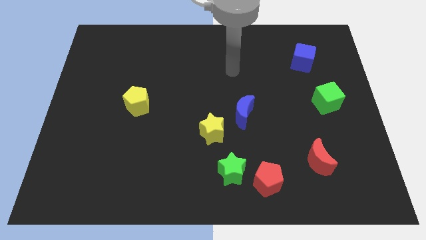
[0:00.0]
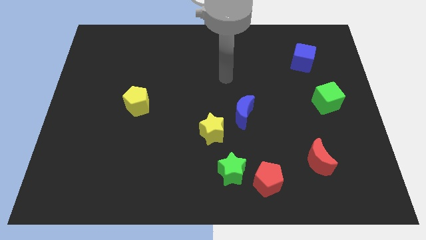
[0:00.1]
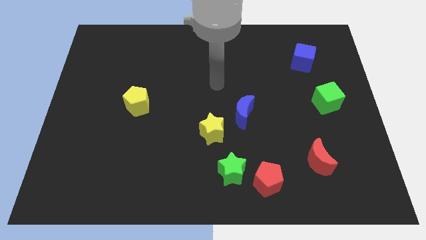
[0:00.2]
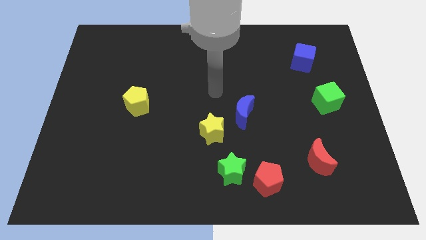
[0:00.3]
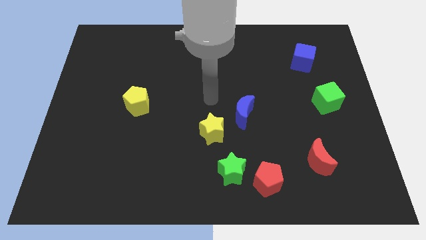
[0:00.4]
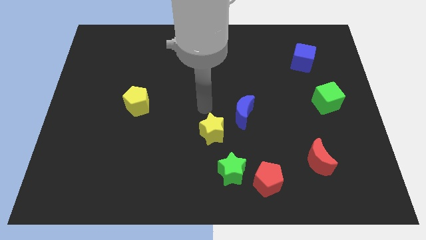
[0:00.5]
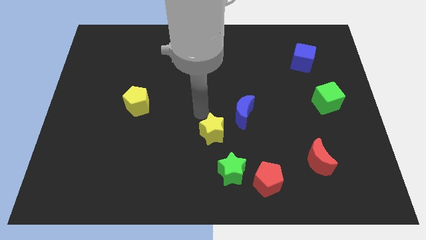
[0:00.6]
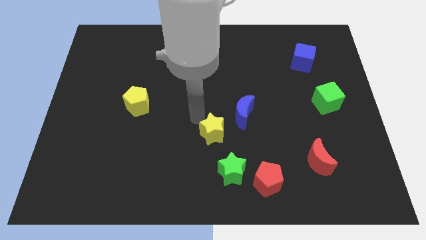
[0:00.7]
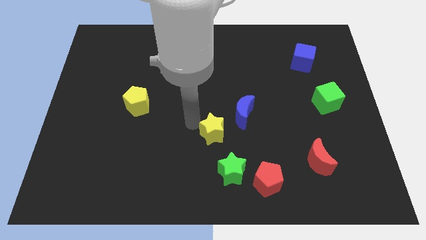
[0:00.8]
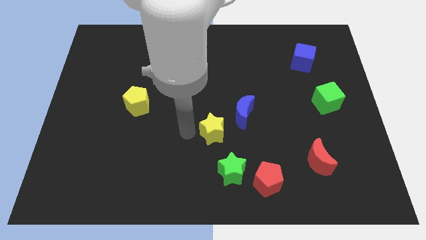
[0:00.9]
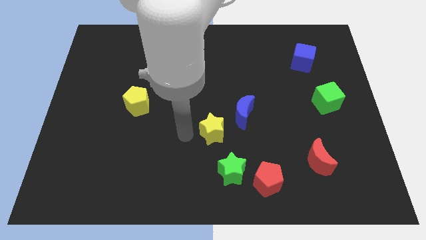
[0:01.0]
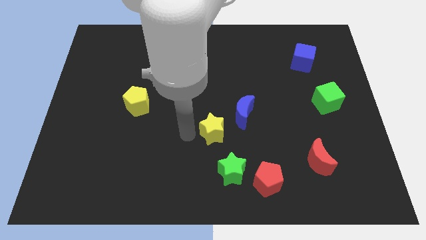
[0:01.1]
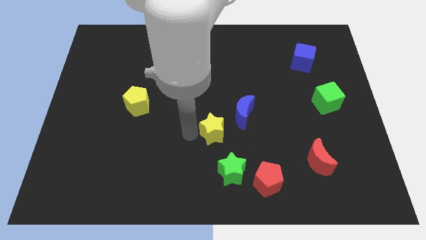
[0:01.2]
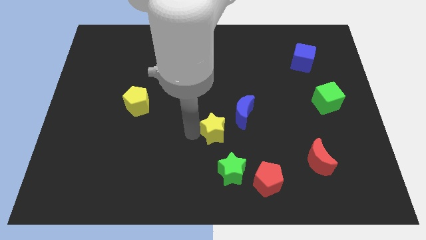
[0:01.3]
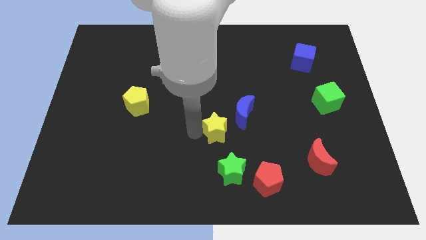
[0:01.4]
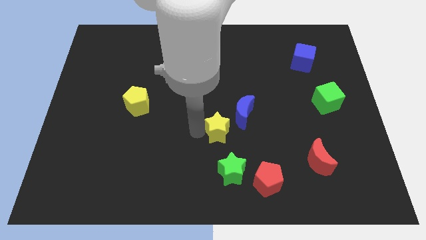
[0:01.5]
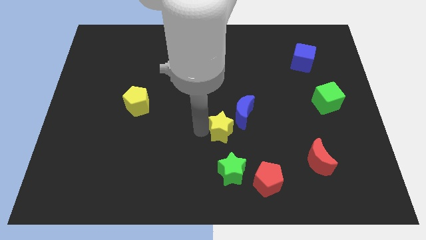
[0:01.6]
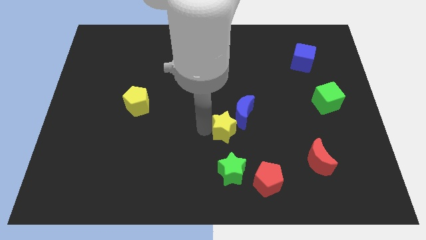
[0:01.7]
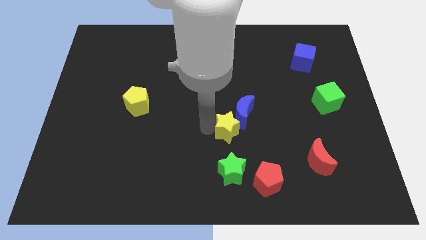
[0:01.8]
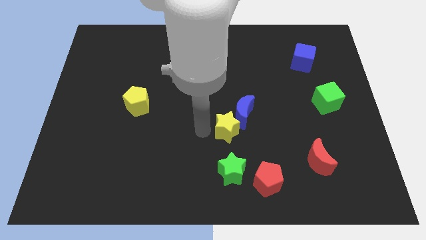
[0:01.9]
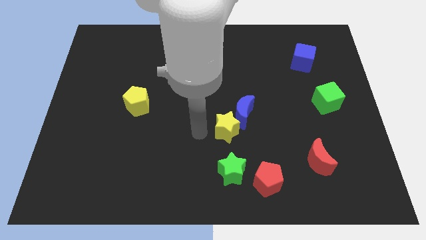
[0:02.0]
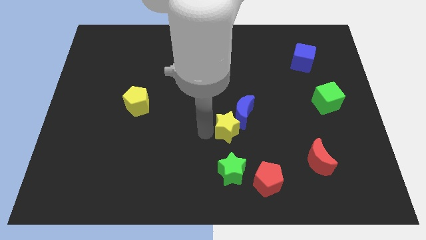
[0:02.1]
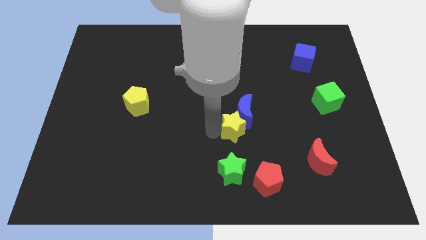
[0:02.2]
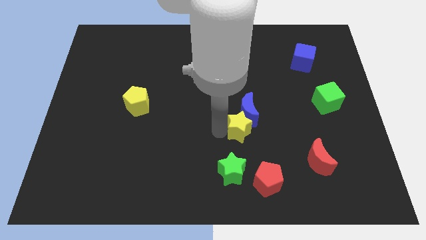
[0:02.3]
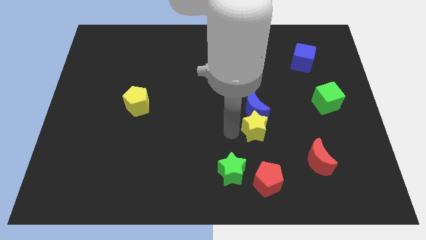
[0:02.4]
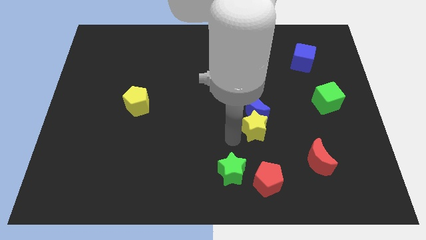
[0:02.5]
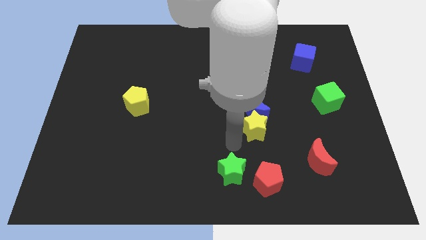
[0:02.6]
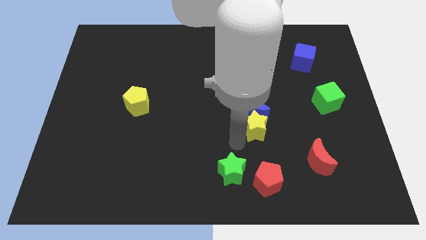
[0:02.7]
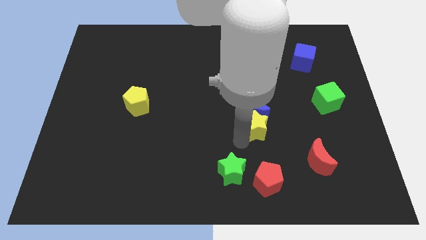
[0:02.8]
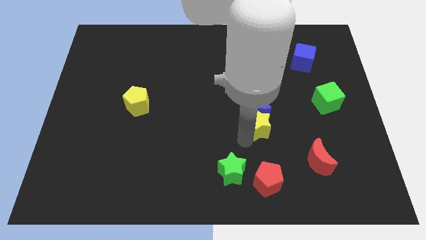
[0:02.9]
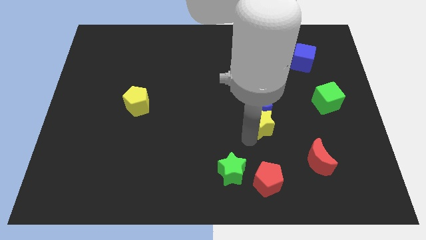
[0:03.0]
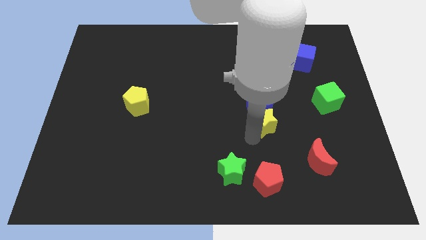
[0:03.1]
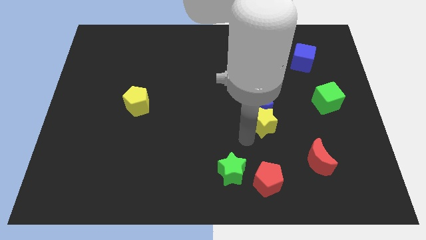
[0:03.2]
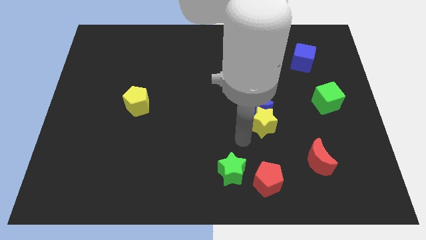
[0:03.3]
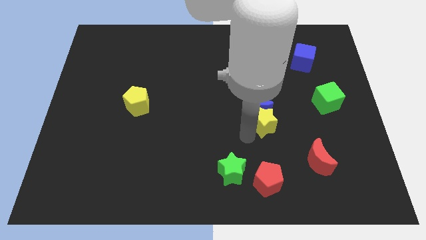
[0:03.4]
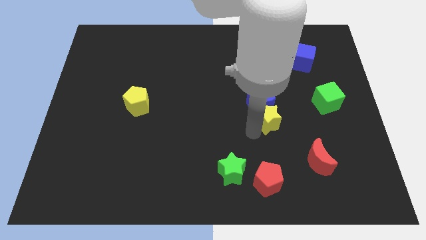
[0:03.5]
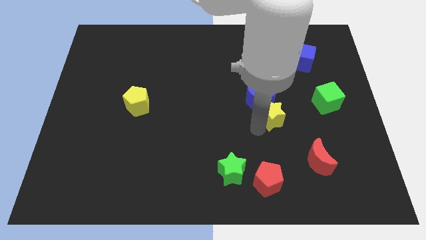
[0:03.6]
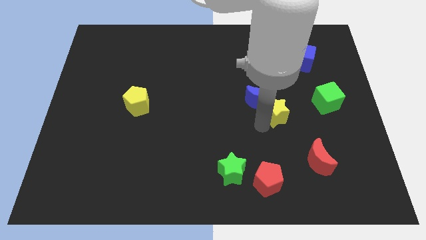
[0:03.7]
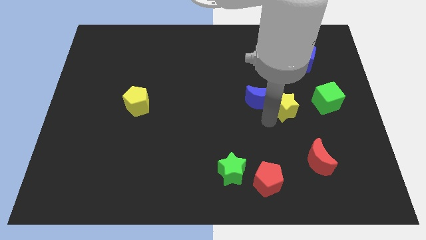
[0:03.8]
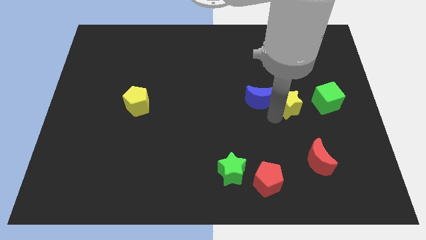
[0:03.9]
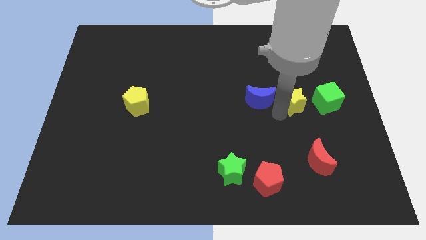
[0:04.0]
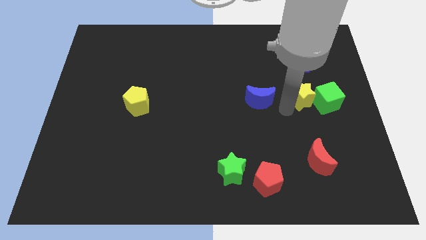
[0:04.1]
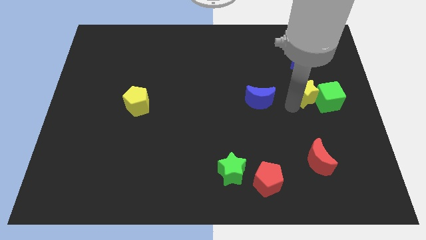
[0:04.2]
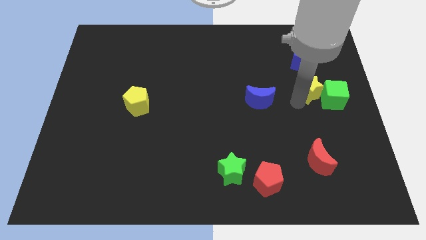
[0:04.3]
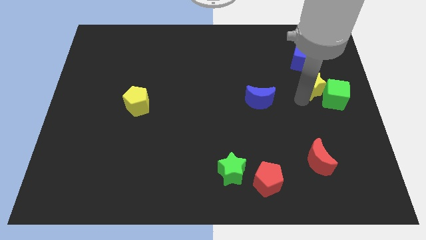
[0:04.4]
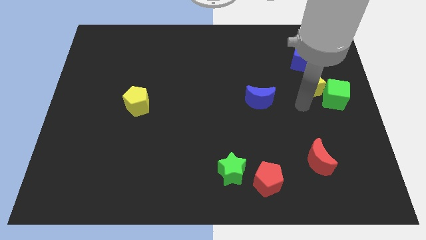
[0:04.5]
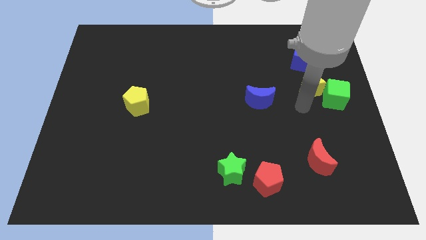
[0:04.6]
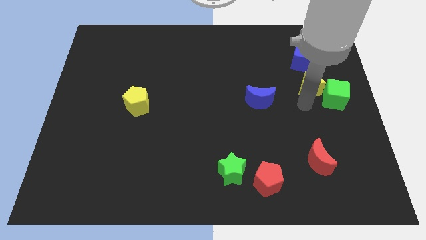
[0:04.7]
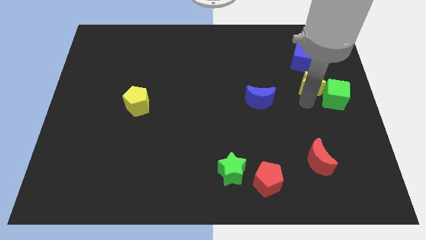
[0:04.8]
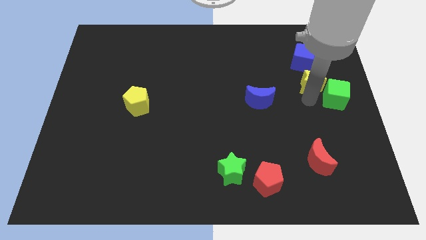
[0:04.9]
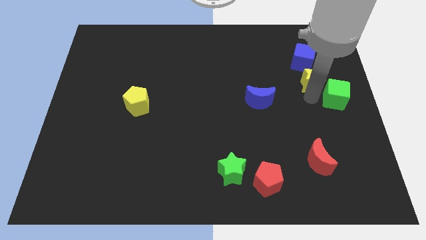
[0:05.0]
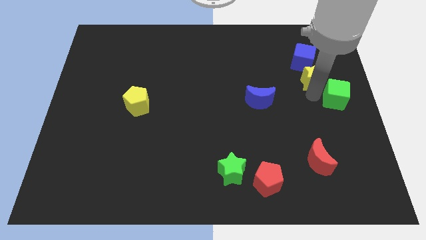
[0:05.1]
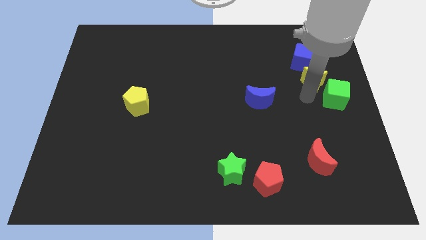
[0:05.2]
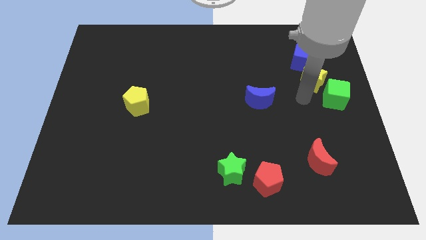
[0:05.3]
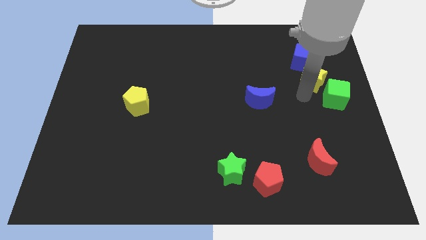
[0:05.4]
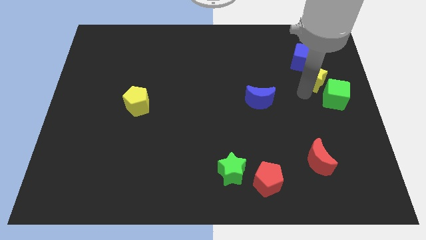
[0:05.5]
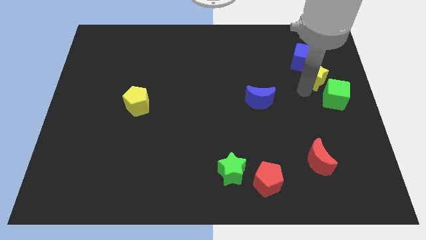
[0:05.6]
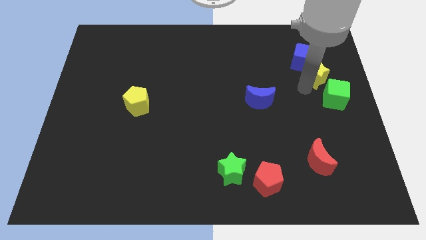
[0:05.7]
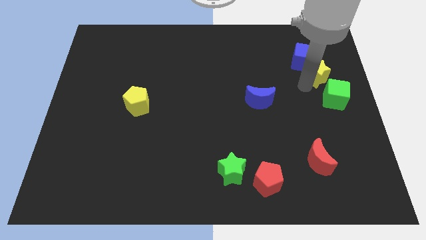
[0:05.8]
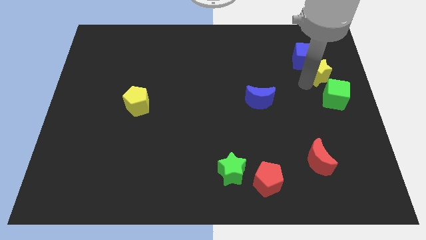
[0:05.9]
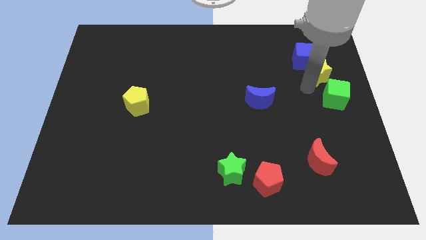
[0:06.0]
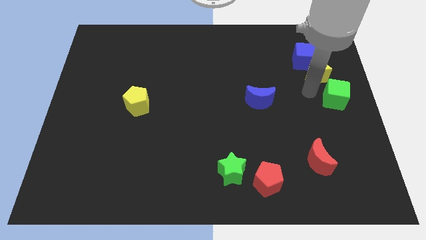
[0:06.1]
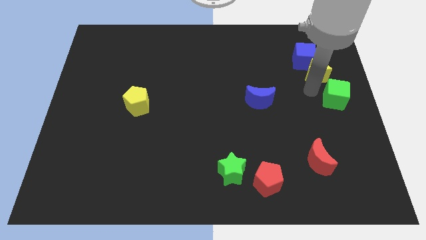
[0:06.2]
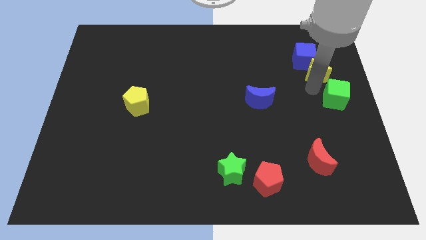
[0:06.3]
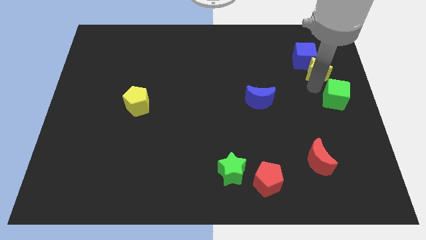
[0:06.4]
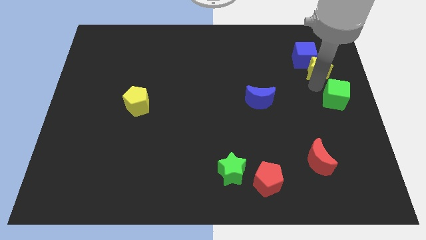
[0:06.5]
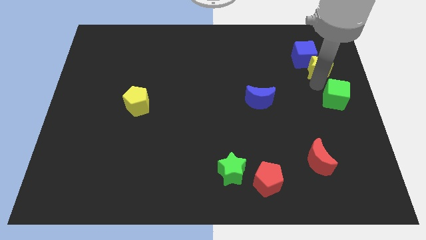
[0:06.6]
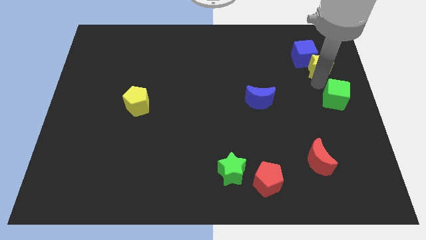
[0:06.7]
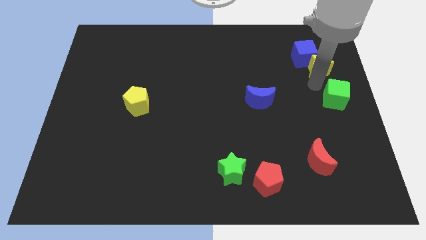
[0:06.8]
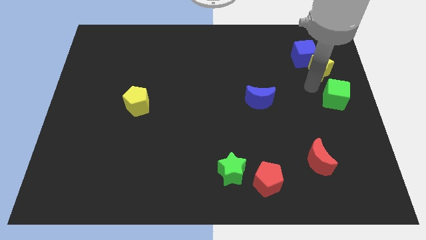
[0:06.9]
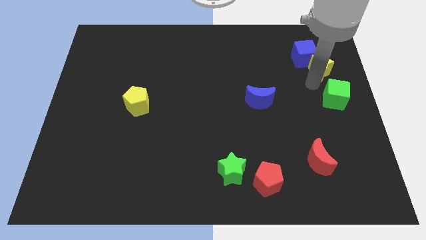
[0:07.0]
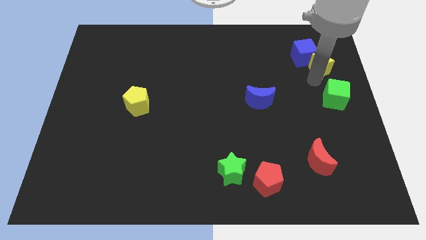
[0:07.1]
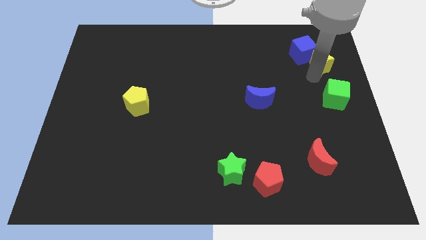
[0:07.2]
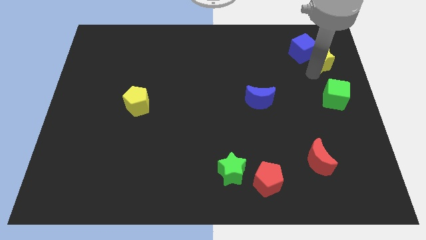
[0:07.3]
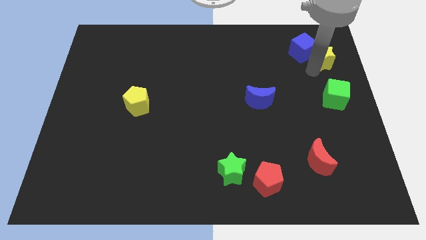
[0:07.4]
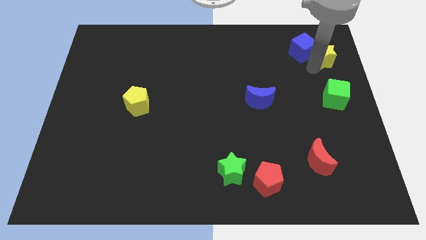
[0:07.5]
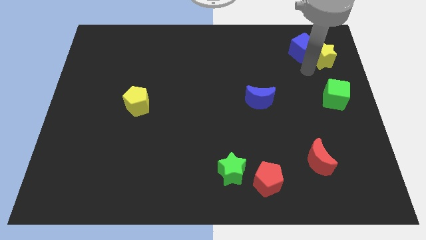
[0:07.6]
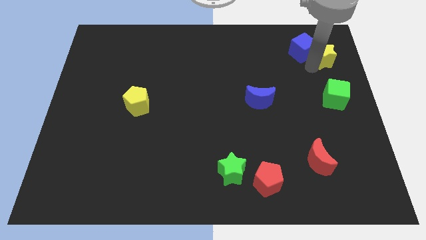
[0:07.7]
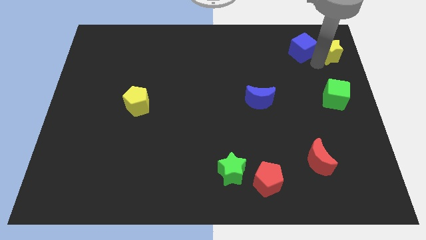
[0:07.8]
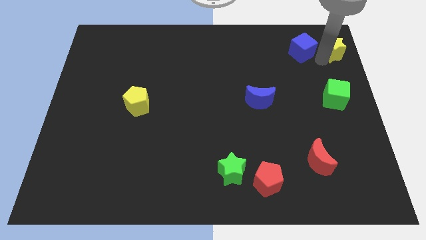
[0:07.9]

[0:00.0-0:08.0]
push the yellow star to the upper right corner
